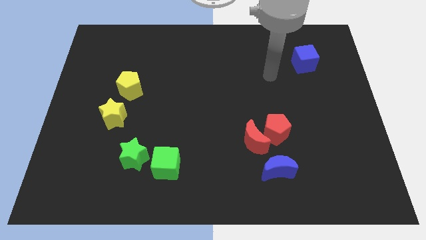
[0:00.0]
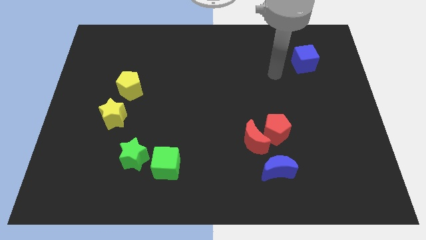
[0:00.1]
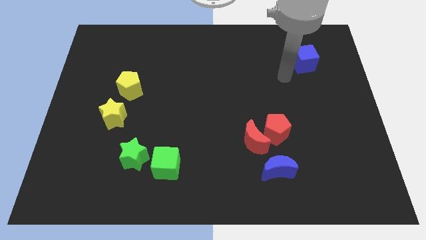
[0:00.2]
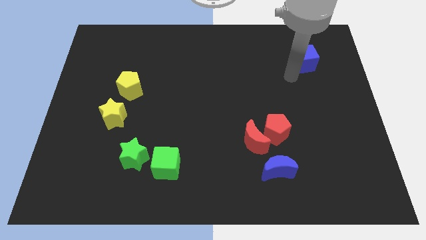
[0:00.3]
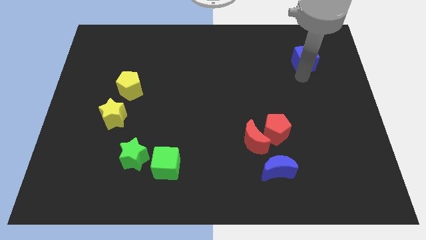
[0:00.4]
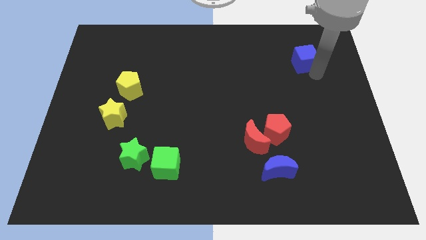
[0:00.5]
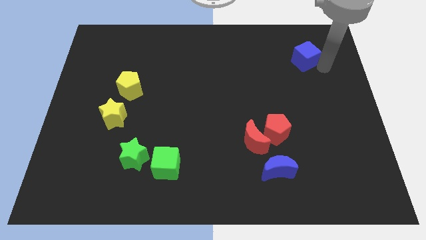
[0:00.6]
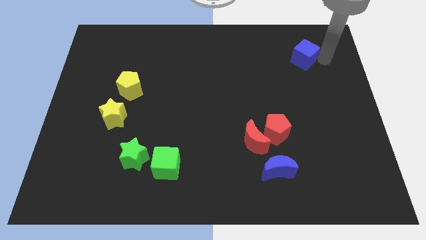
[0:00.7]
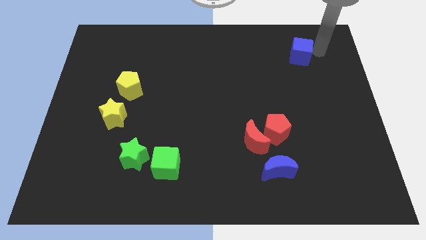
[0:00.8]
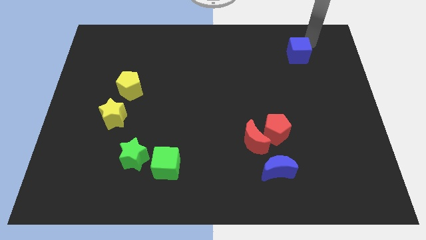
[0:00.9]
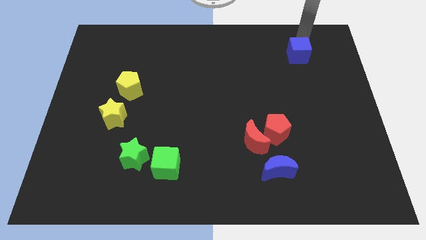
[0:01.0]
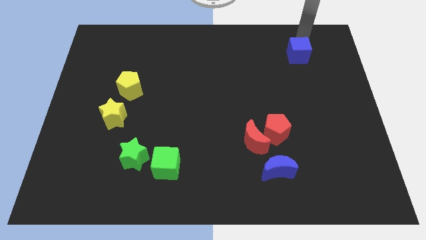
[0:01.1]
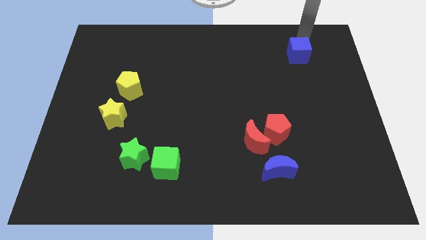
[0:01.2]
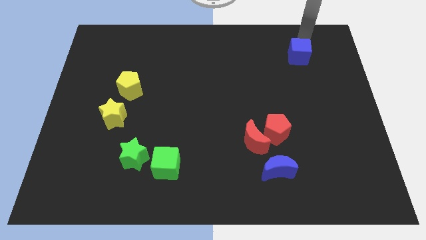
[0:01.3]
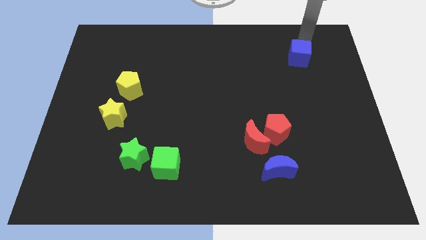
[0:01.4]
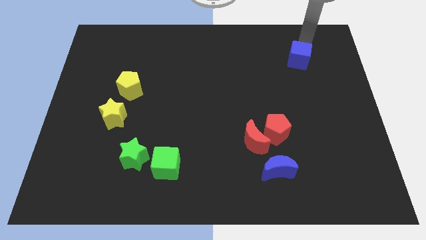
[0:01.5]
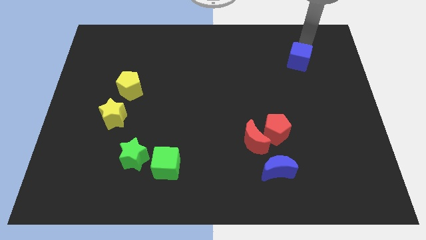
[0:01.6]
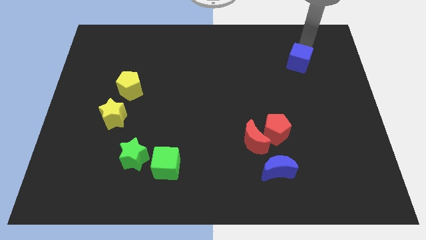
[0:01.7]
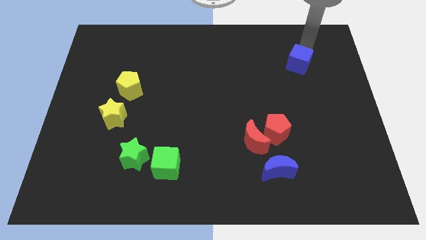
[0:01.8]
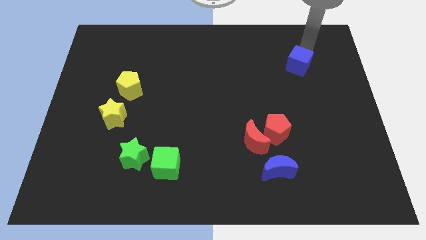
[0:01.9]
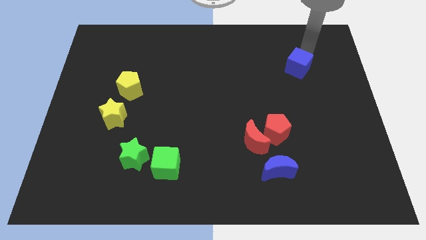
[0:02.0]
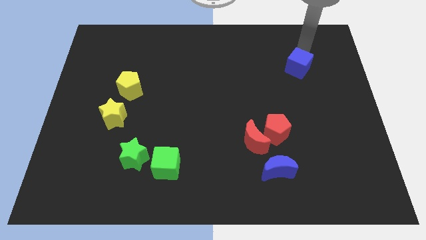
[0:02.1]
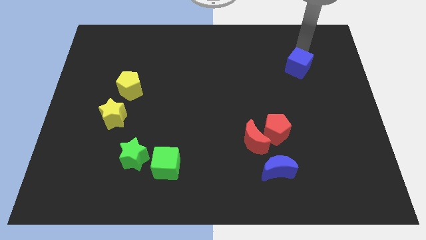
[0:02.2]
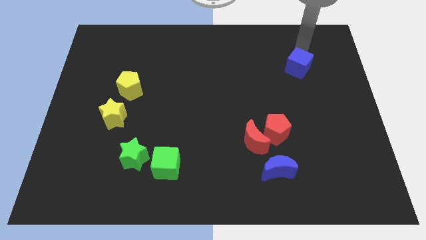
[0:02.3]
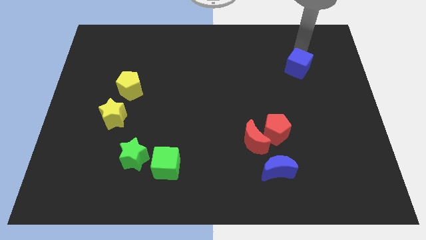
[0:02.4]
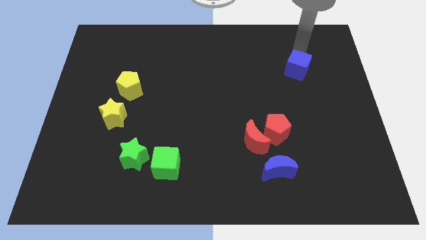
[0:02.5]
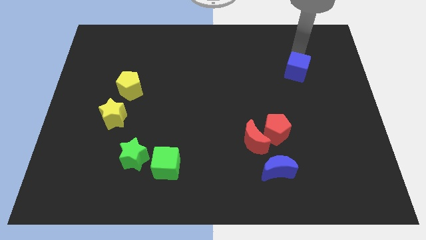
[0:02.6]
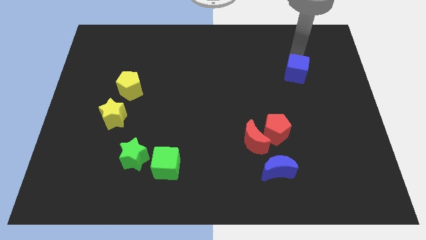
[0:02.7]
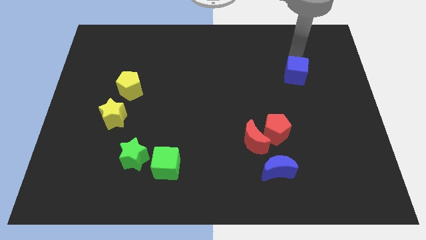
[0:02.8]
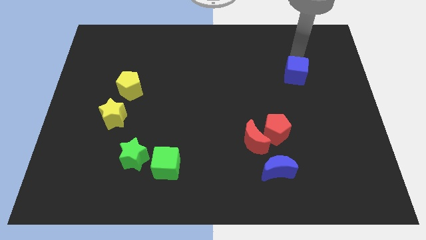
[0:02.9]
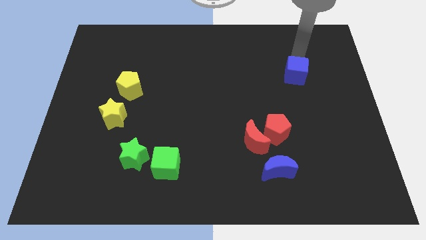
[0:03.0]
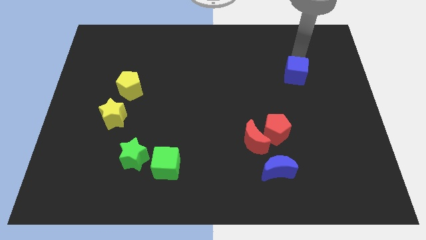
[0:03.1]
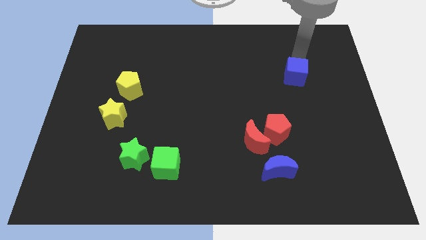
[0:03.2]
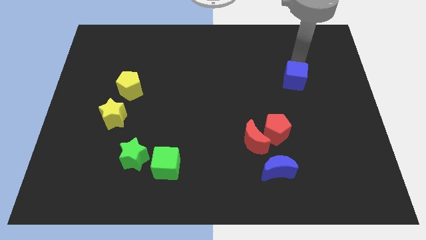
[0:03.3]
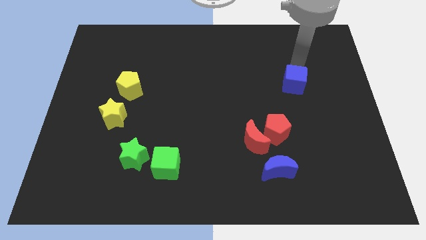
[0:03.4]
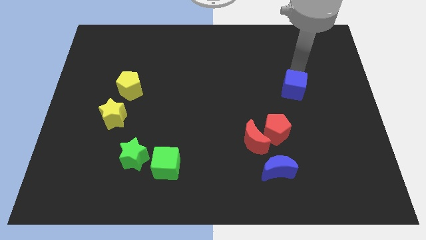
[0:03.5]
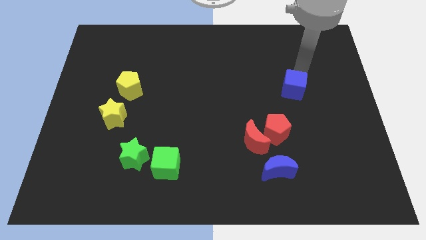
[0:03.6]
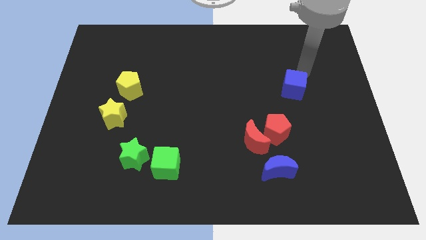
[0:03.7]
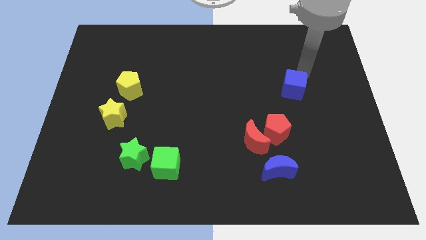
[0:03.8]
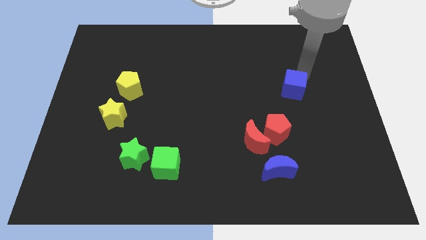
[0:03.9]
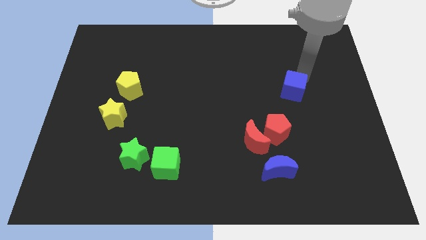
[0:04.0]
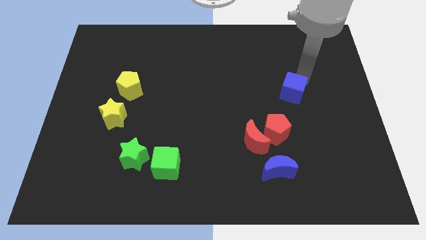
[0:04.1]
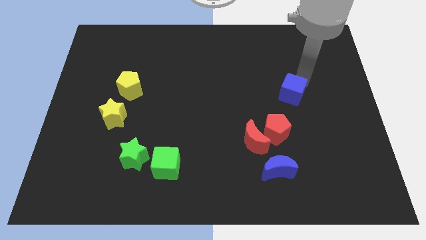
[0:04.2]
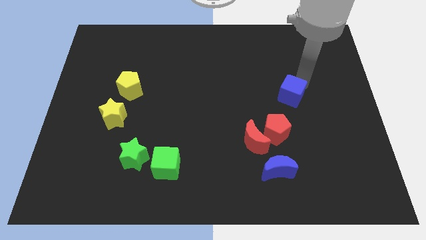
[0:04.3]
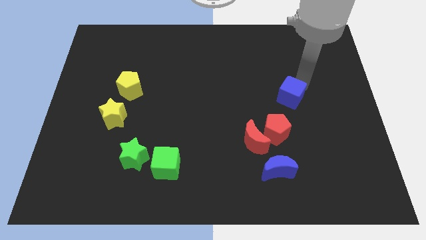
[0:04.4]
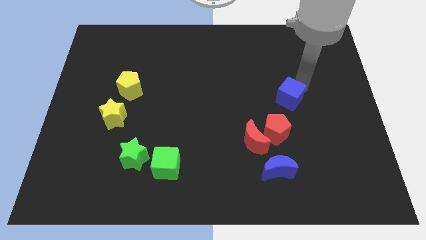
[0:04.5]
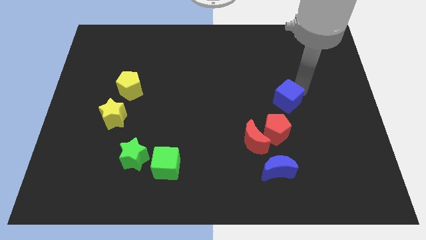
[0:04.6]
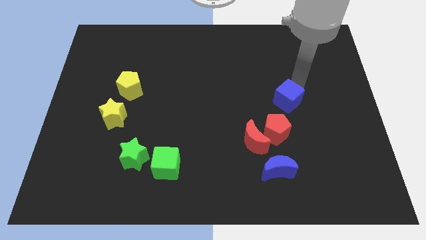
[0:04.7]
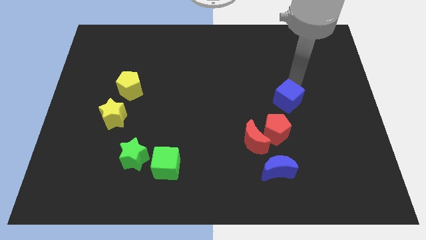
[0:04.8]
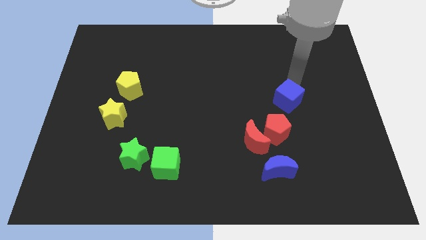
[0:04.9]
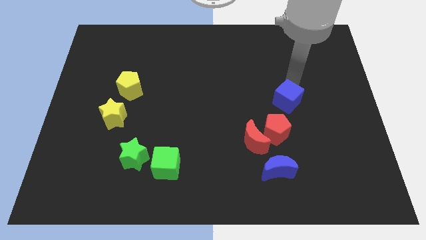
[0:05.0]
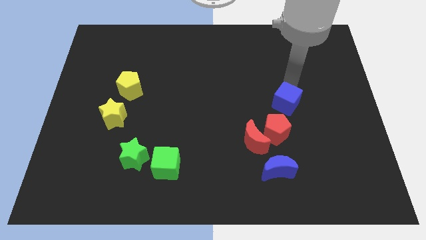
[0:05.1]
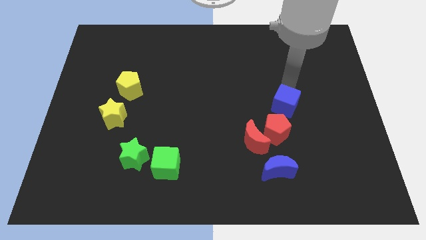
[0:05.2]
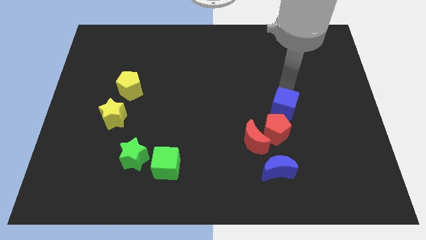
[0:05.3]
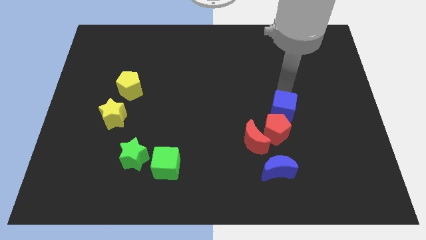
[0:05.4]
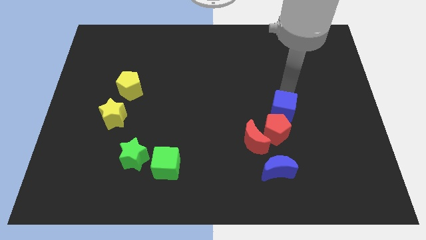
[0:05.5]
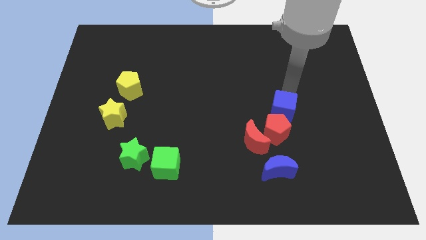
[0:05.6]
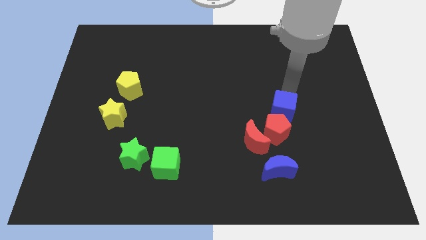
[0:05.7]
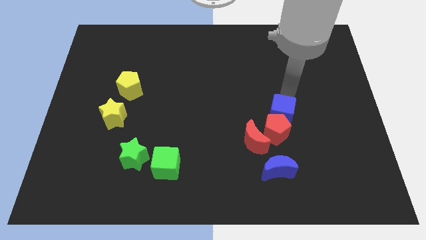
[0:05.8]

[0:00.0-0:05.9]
move the blue cube to the red pentagon
